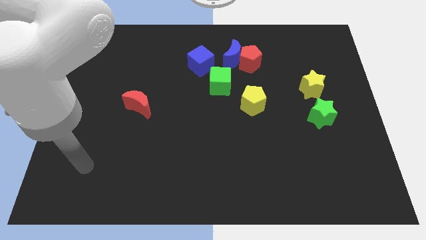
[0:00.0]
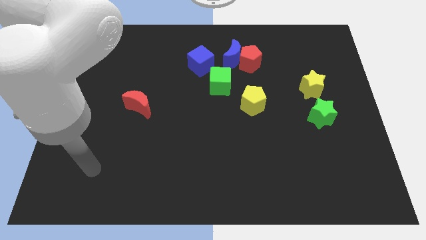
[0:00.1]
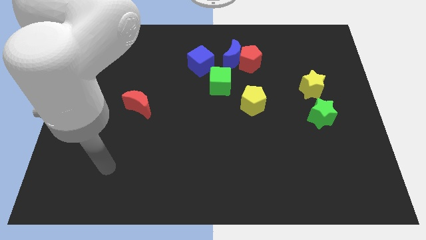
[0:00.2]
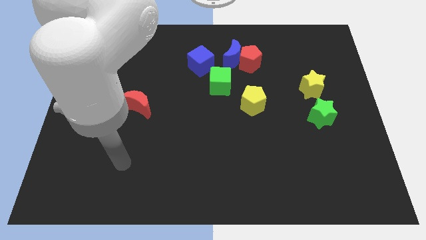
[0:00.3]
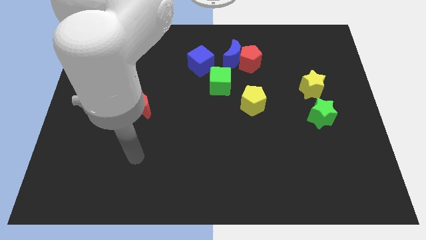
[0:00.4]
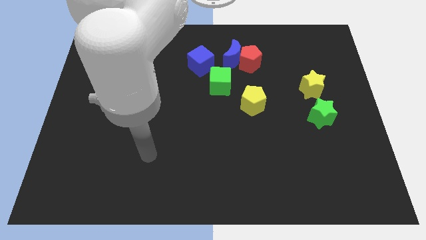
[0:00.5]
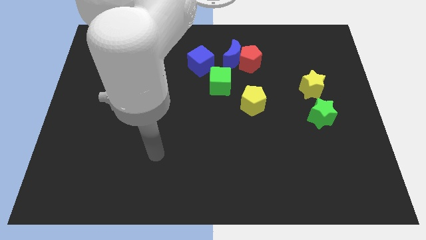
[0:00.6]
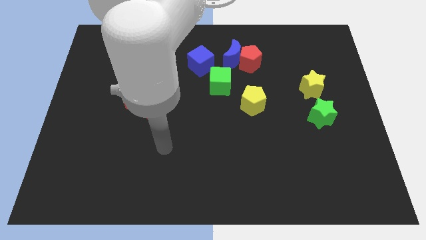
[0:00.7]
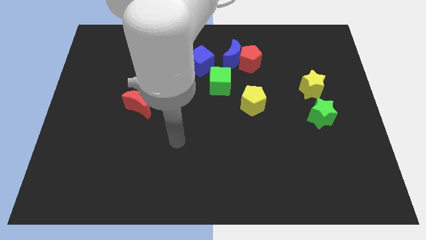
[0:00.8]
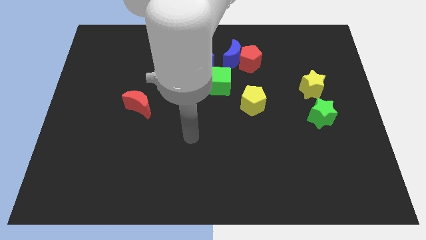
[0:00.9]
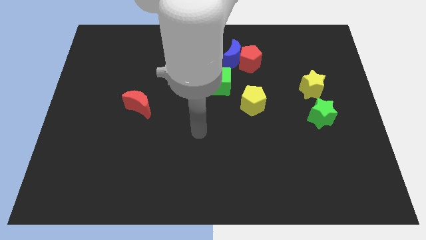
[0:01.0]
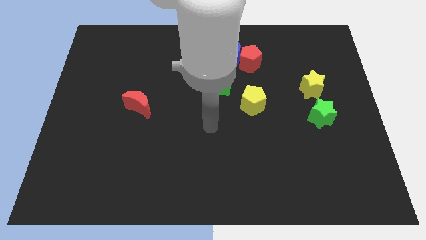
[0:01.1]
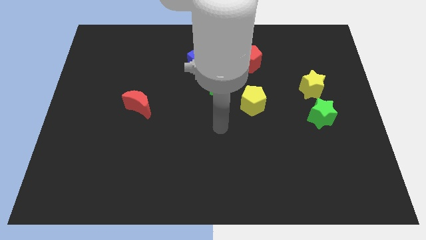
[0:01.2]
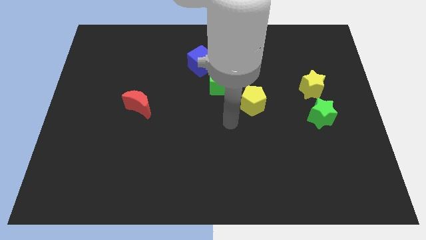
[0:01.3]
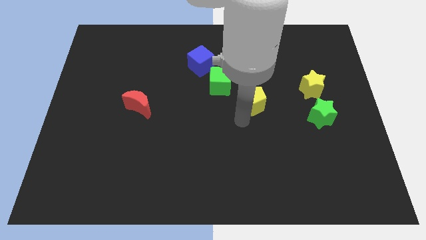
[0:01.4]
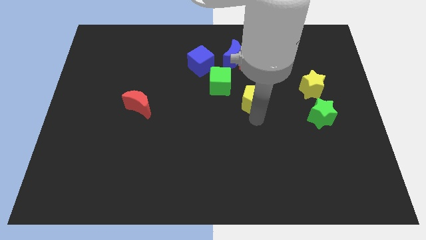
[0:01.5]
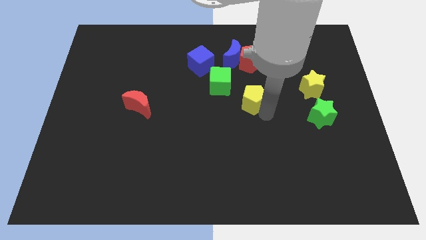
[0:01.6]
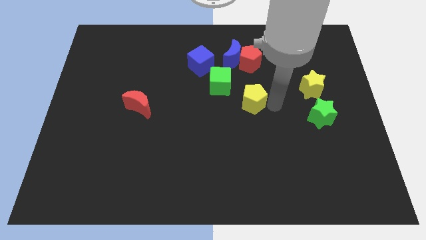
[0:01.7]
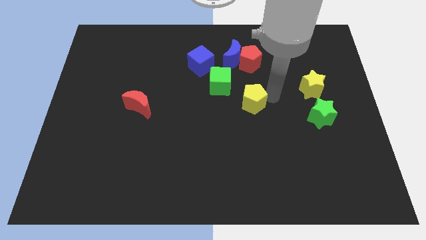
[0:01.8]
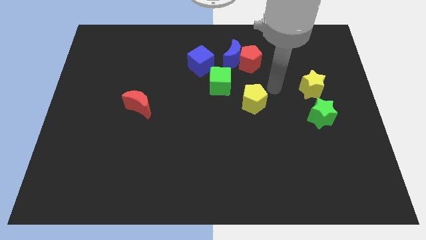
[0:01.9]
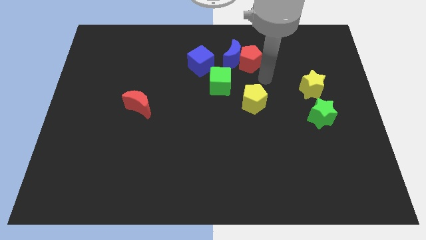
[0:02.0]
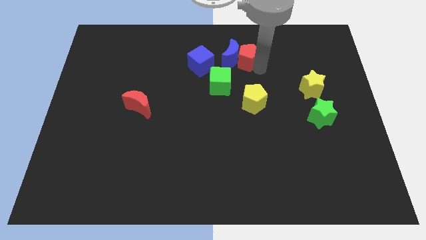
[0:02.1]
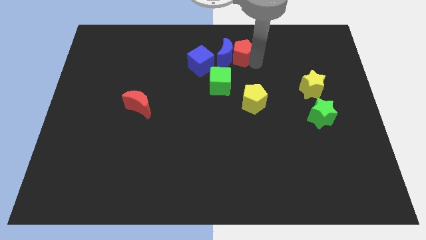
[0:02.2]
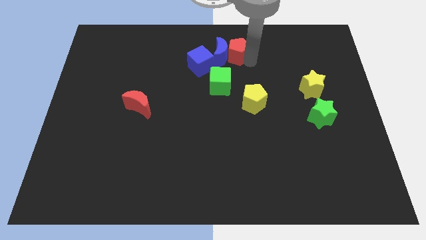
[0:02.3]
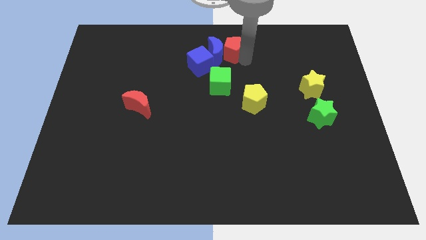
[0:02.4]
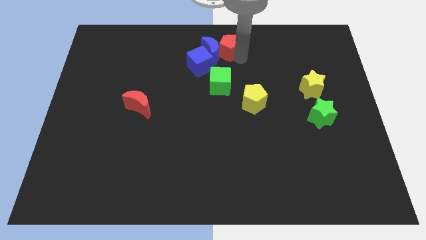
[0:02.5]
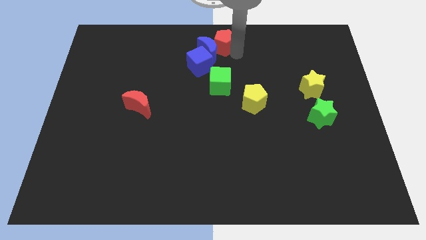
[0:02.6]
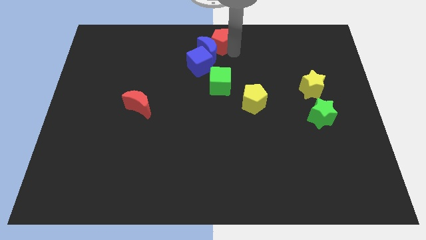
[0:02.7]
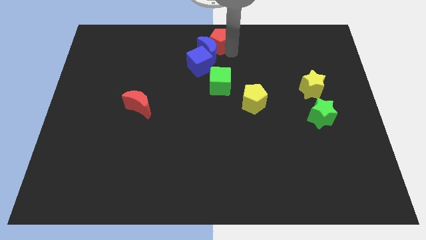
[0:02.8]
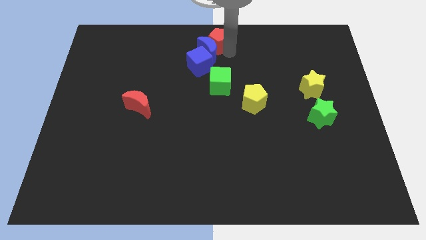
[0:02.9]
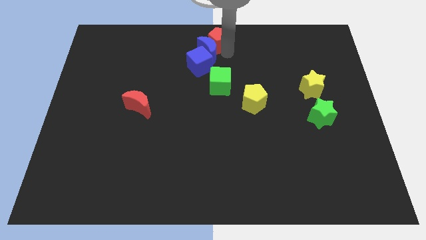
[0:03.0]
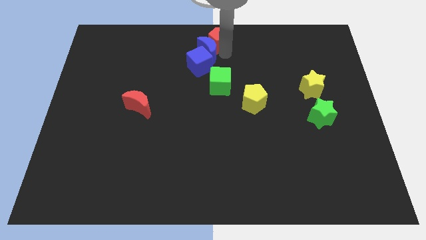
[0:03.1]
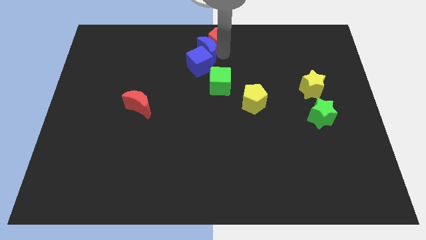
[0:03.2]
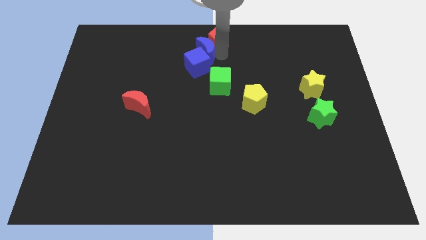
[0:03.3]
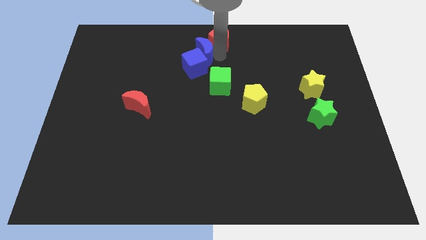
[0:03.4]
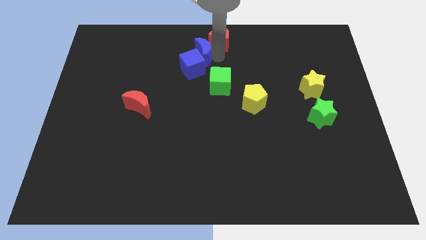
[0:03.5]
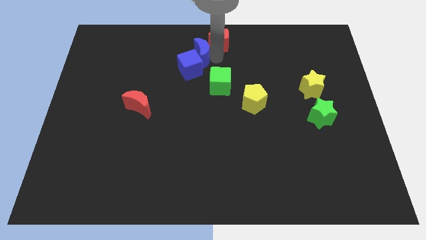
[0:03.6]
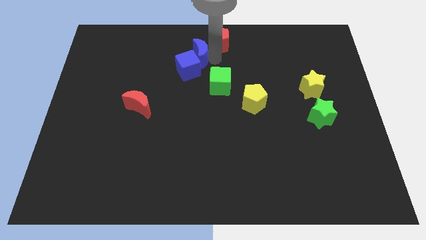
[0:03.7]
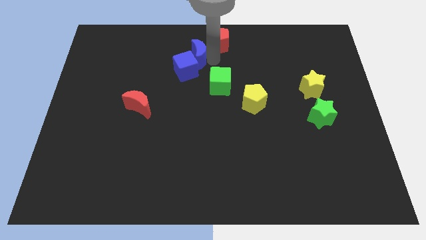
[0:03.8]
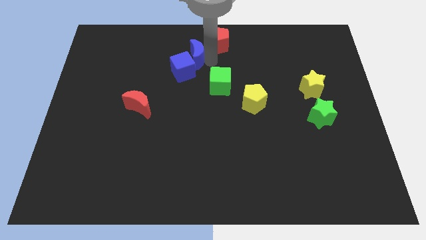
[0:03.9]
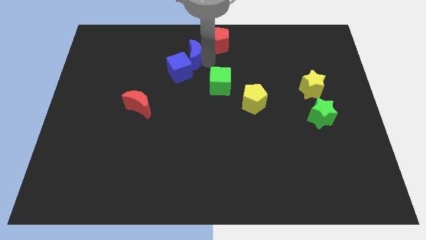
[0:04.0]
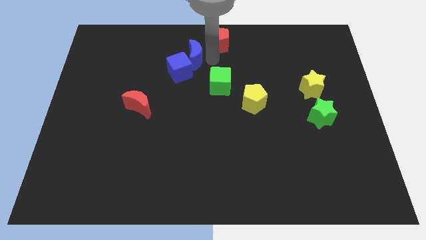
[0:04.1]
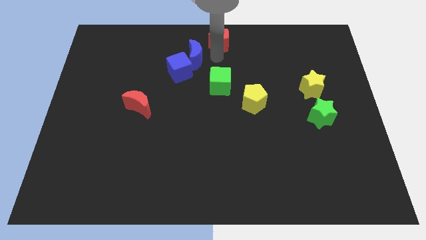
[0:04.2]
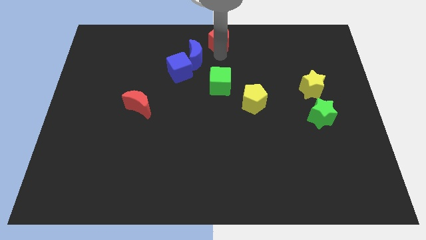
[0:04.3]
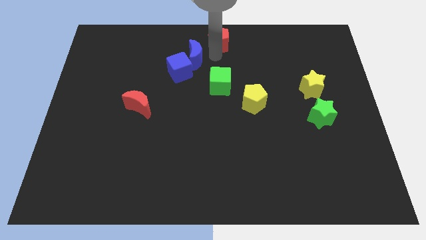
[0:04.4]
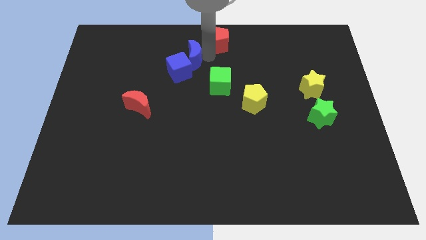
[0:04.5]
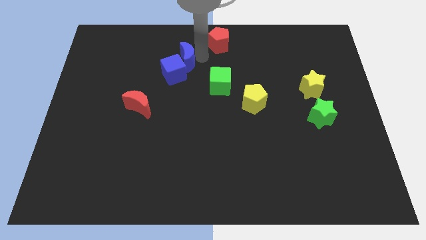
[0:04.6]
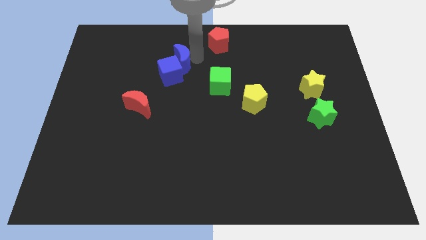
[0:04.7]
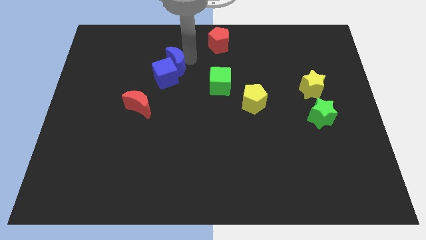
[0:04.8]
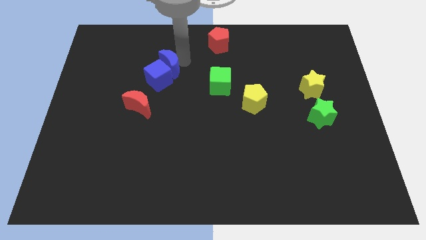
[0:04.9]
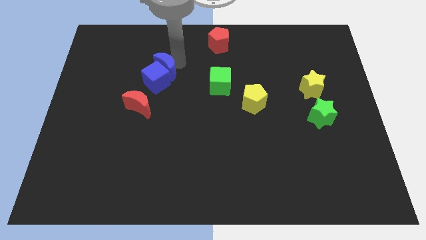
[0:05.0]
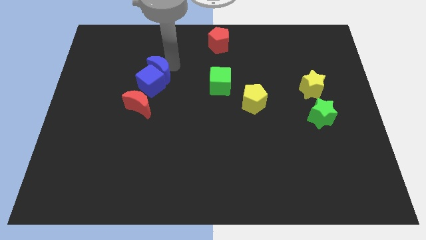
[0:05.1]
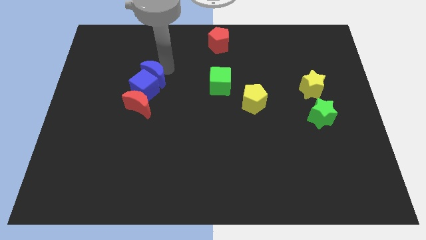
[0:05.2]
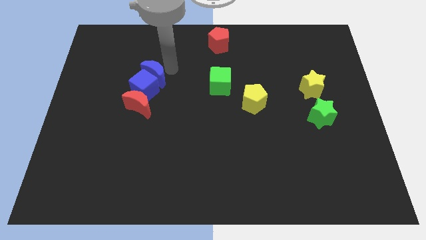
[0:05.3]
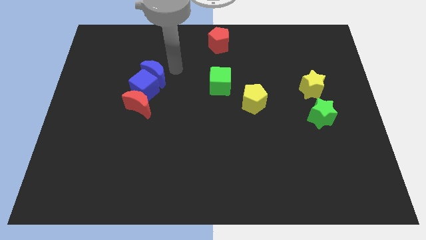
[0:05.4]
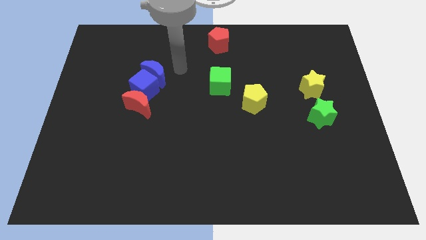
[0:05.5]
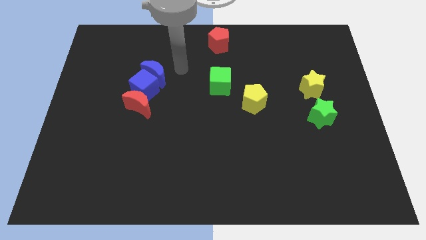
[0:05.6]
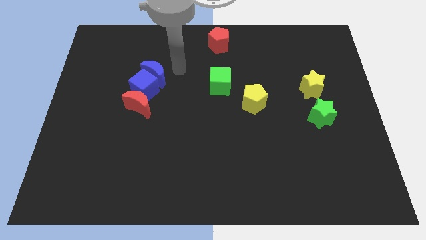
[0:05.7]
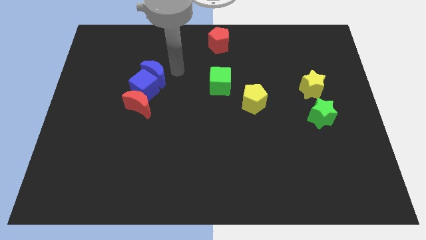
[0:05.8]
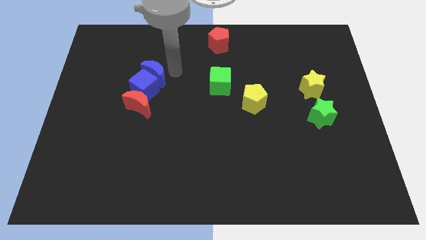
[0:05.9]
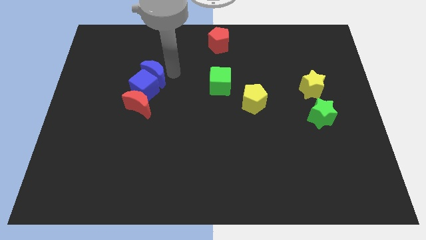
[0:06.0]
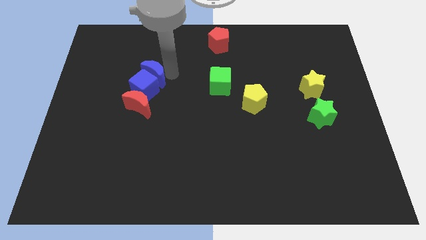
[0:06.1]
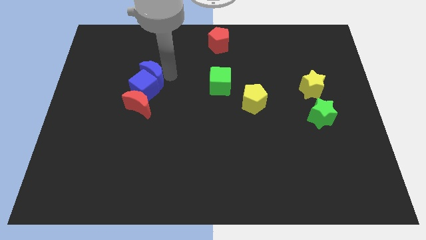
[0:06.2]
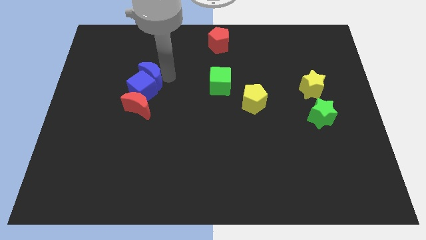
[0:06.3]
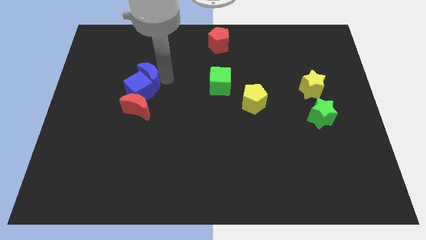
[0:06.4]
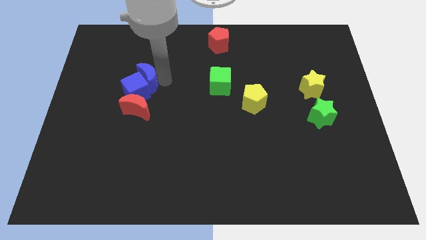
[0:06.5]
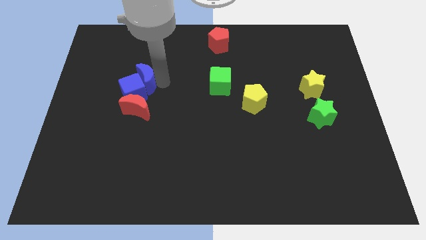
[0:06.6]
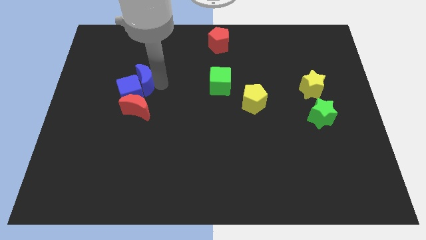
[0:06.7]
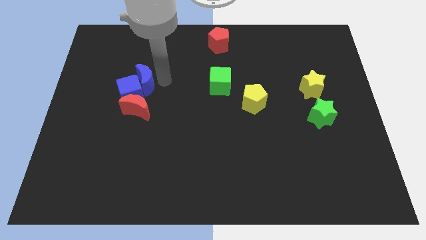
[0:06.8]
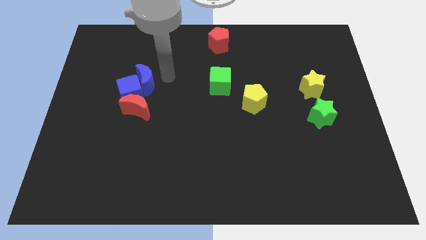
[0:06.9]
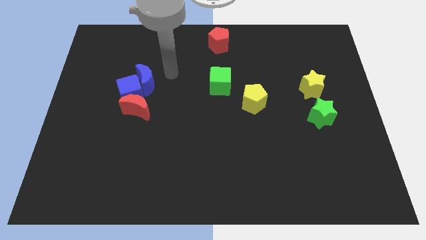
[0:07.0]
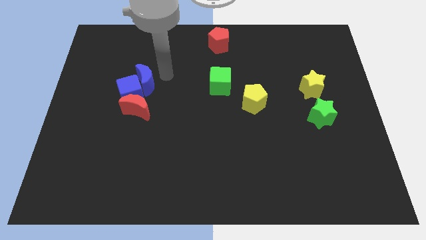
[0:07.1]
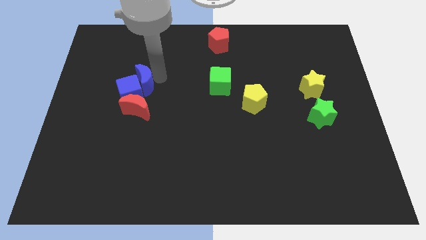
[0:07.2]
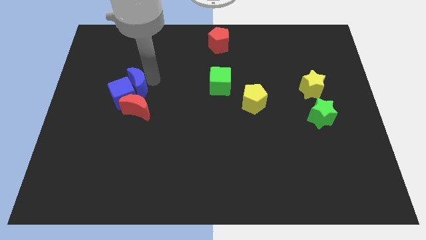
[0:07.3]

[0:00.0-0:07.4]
put the blue moon diagonally up and to the left of the red moon

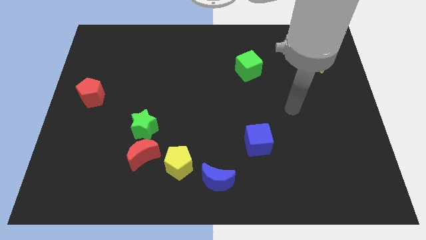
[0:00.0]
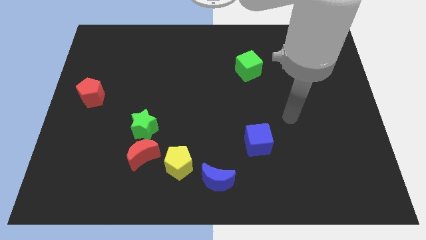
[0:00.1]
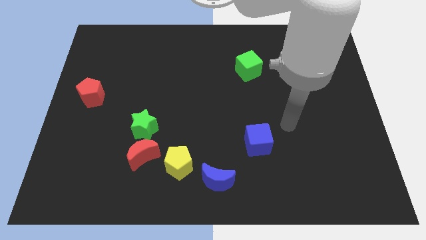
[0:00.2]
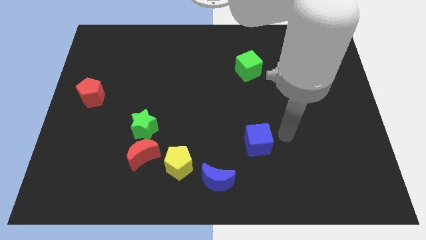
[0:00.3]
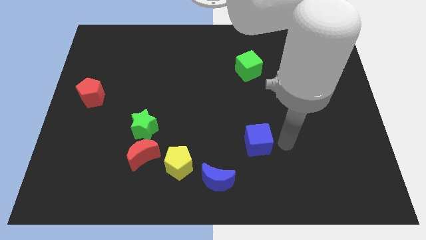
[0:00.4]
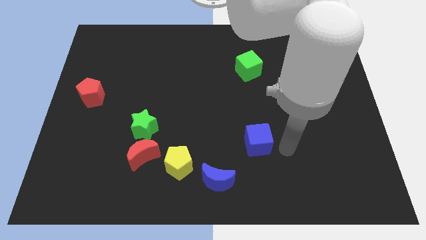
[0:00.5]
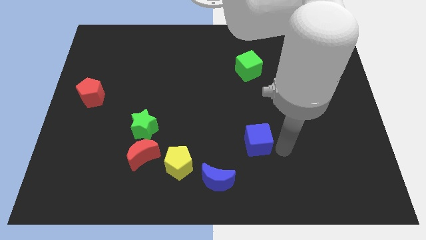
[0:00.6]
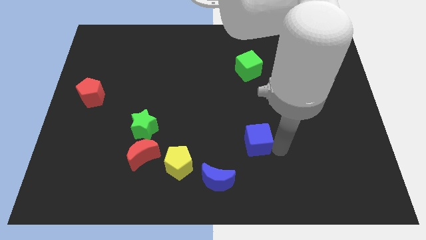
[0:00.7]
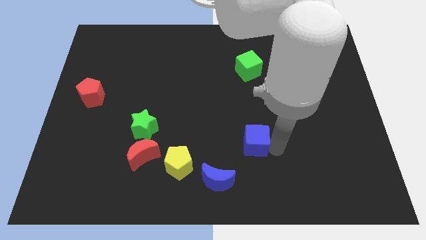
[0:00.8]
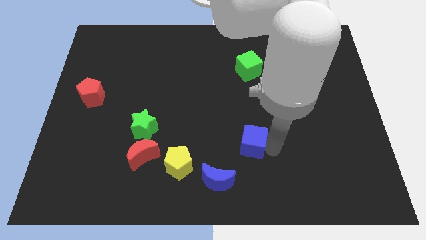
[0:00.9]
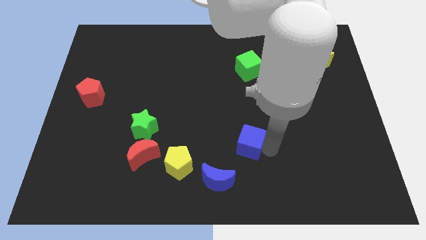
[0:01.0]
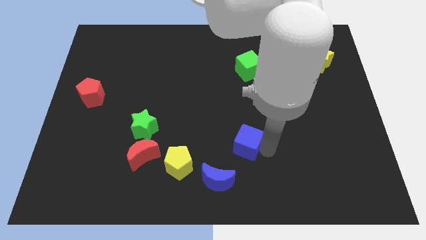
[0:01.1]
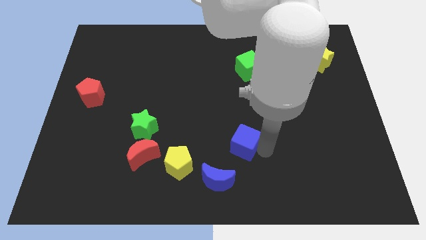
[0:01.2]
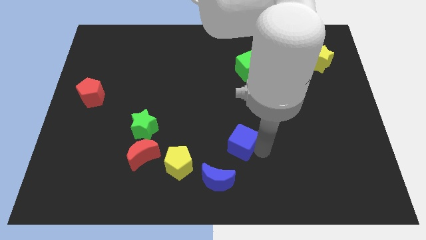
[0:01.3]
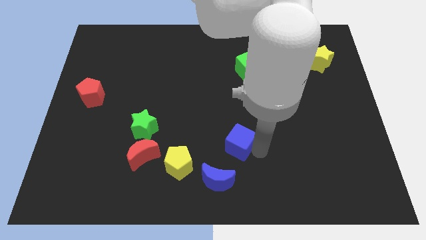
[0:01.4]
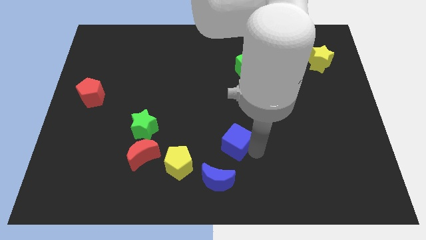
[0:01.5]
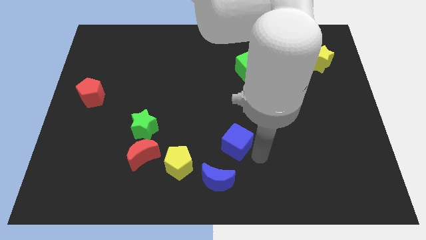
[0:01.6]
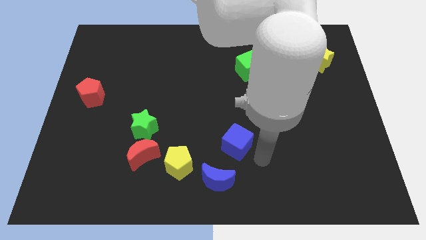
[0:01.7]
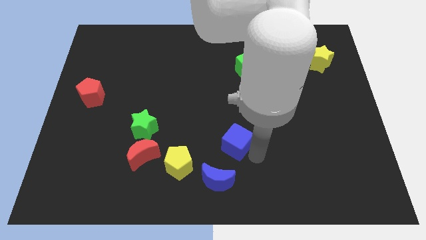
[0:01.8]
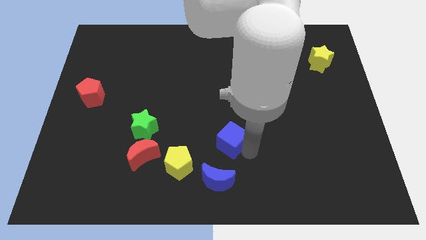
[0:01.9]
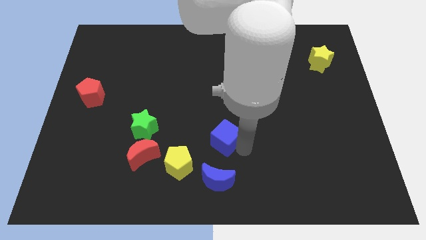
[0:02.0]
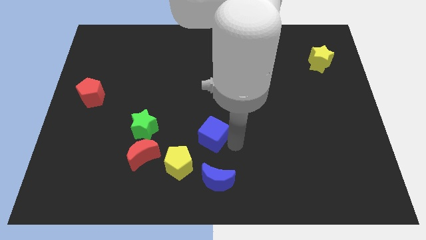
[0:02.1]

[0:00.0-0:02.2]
put the blue cube to the right side of the green star
